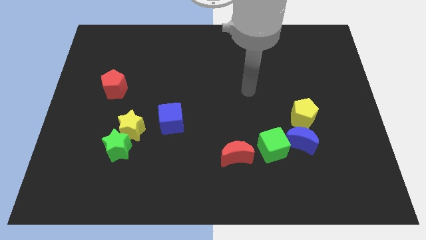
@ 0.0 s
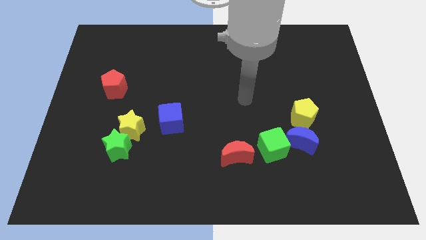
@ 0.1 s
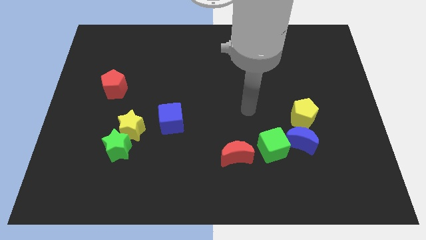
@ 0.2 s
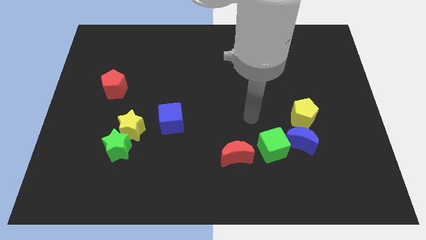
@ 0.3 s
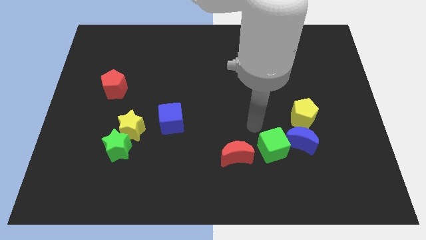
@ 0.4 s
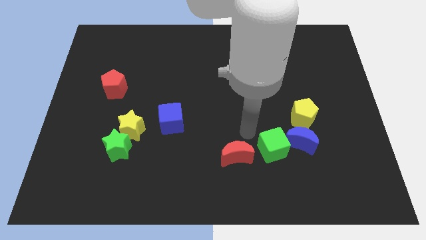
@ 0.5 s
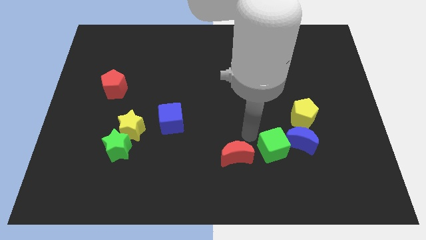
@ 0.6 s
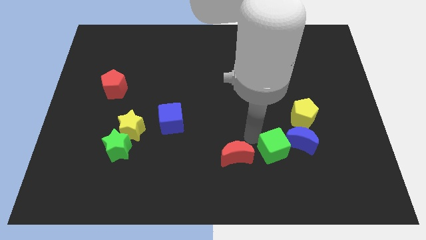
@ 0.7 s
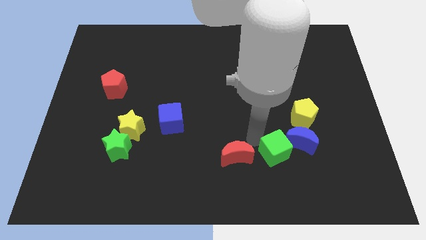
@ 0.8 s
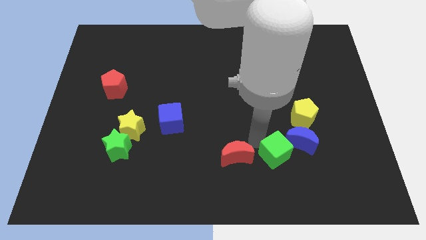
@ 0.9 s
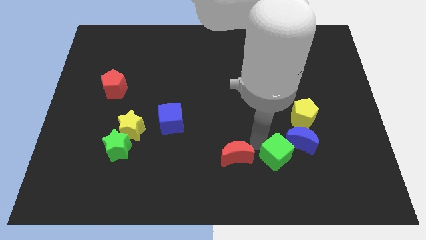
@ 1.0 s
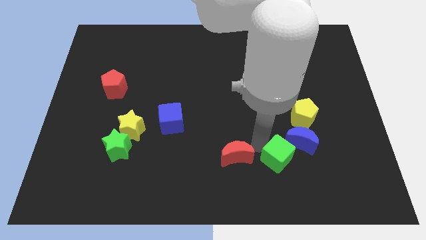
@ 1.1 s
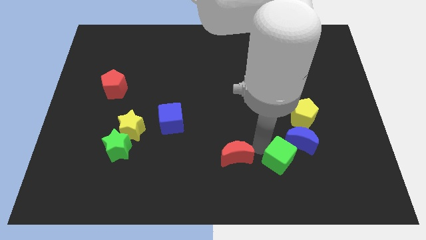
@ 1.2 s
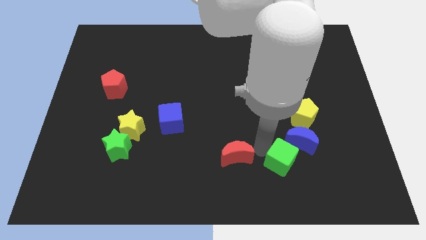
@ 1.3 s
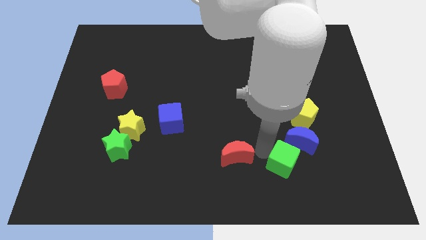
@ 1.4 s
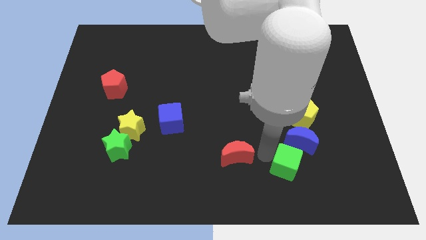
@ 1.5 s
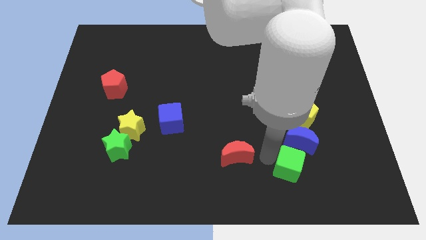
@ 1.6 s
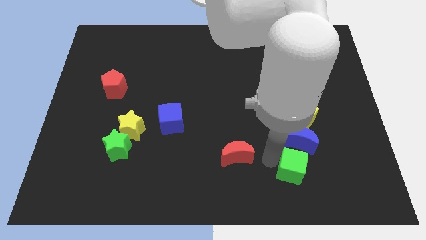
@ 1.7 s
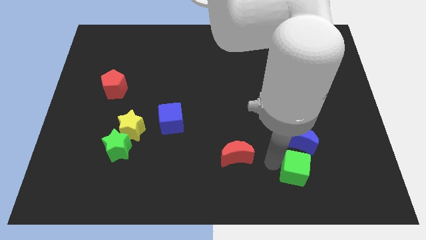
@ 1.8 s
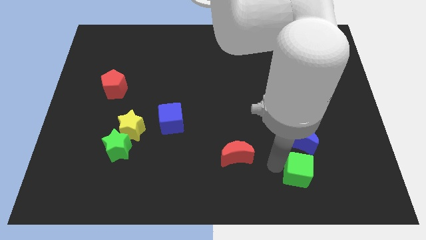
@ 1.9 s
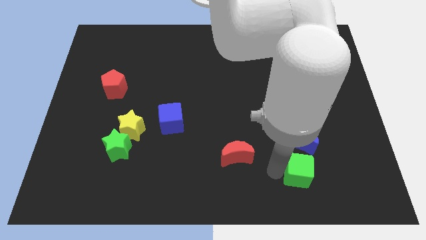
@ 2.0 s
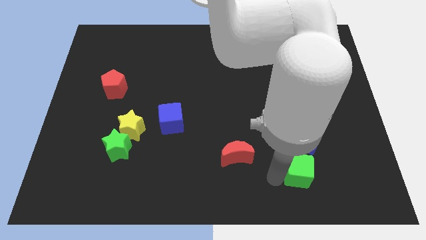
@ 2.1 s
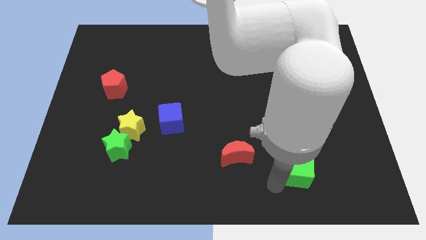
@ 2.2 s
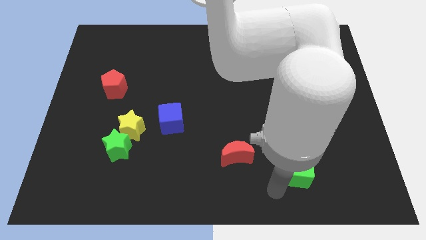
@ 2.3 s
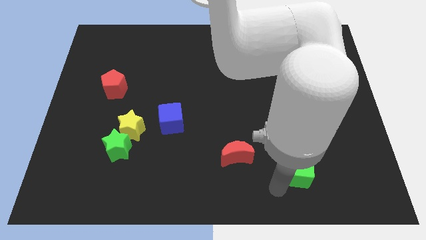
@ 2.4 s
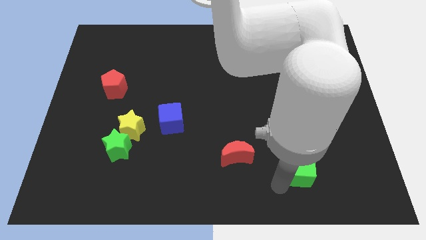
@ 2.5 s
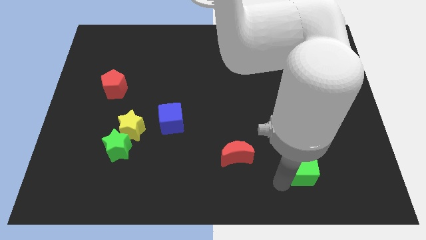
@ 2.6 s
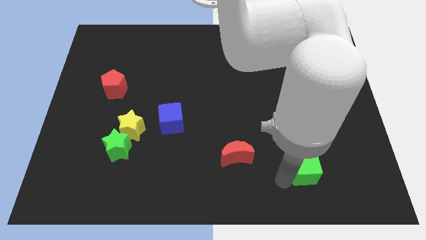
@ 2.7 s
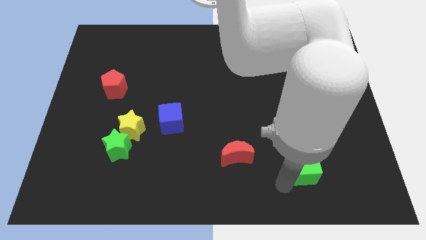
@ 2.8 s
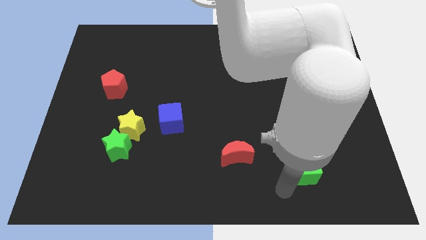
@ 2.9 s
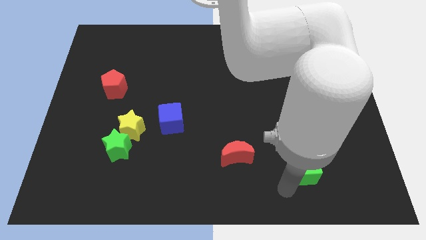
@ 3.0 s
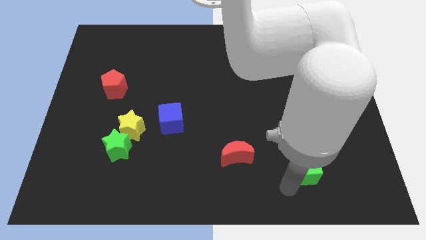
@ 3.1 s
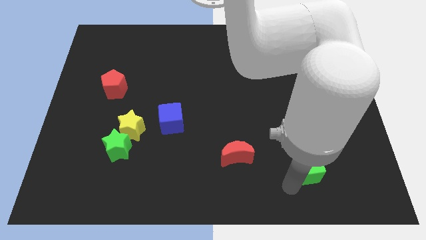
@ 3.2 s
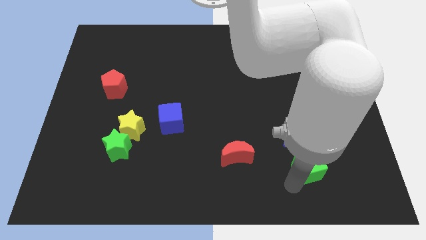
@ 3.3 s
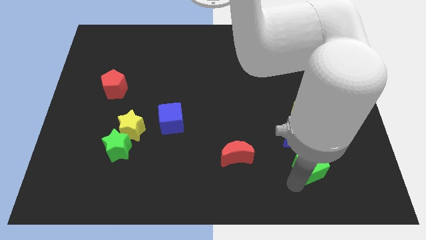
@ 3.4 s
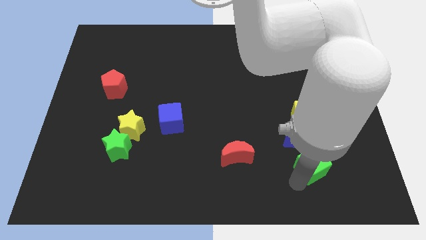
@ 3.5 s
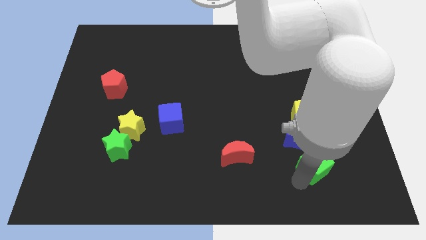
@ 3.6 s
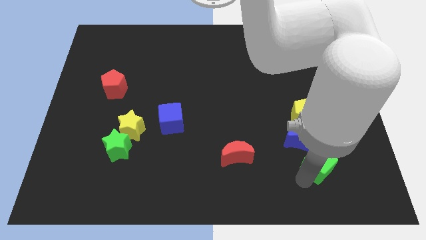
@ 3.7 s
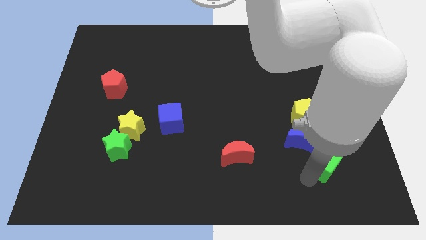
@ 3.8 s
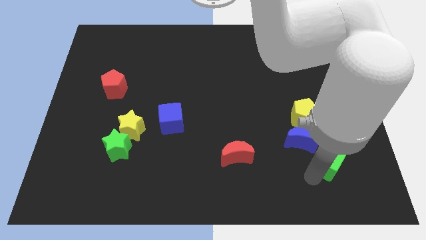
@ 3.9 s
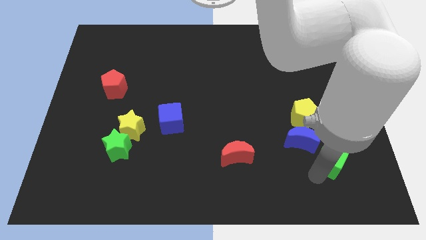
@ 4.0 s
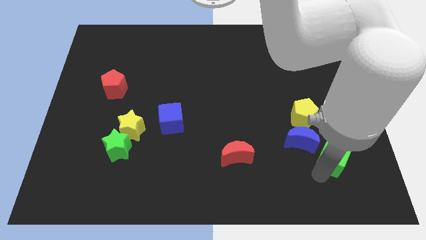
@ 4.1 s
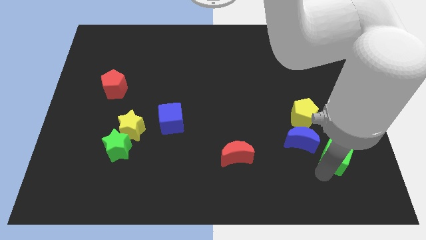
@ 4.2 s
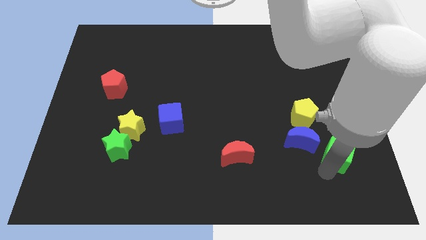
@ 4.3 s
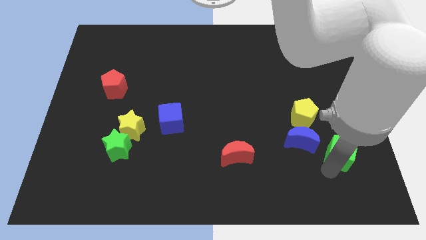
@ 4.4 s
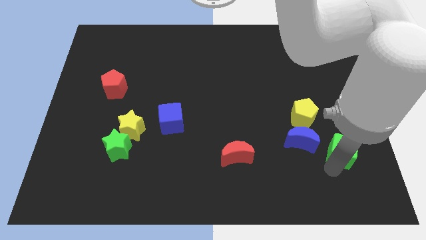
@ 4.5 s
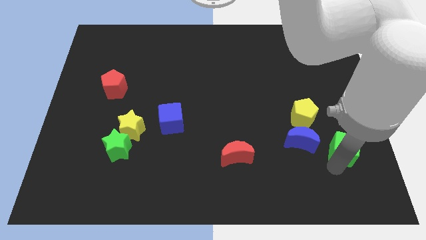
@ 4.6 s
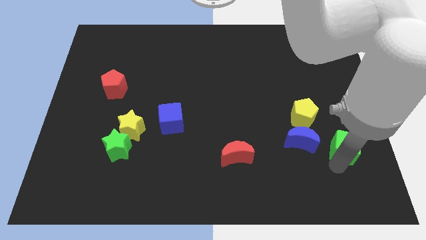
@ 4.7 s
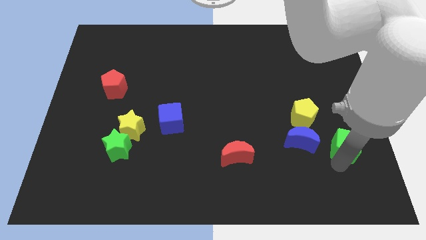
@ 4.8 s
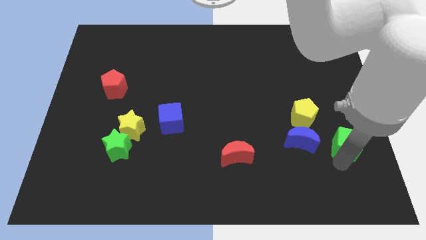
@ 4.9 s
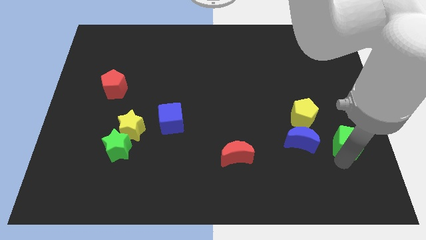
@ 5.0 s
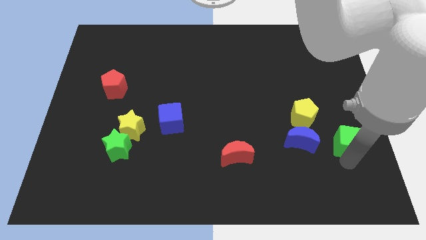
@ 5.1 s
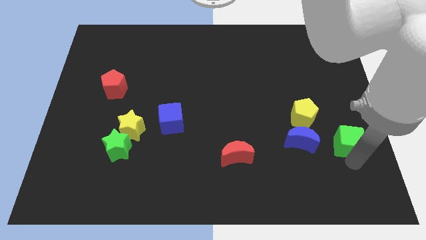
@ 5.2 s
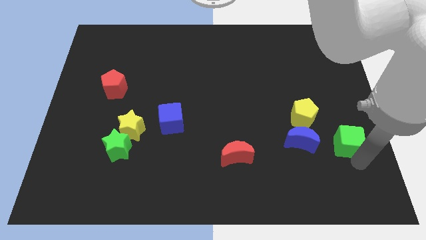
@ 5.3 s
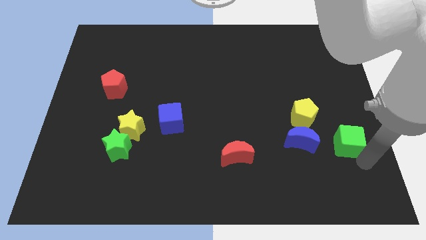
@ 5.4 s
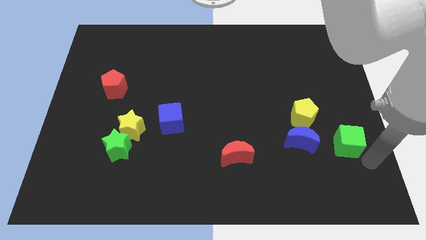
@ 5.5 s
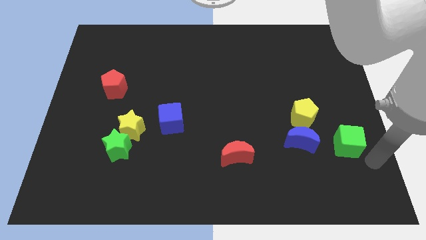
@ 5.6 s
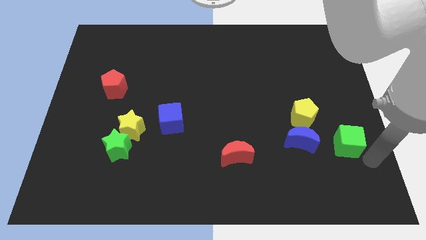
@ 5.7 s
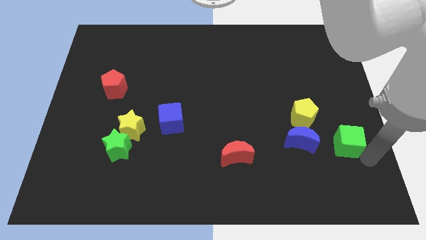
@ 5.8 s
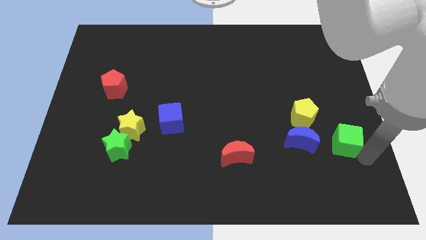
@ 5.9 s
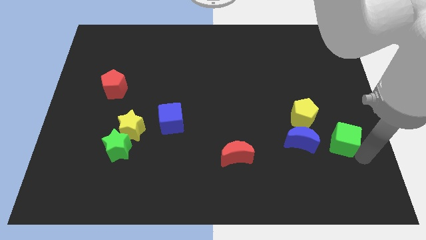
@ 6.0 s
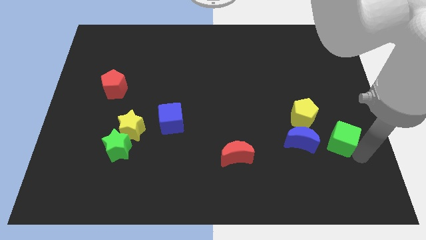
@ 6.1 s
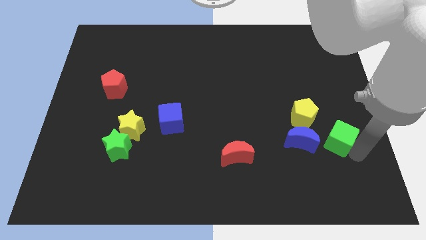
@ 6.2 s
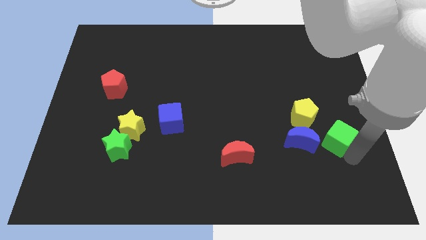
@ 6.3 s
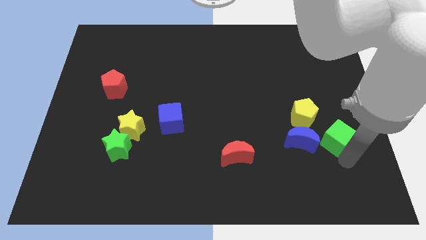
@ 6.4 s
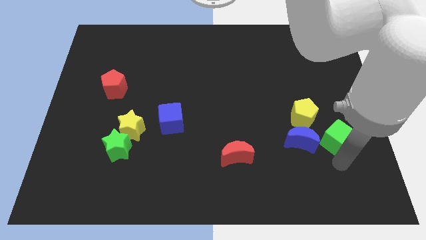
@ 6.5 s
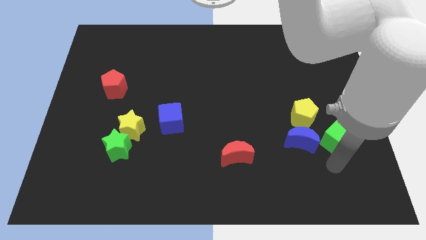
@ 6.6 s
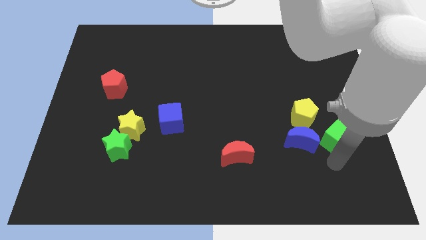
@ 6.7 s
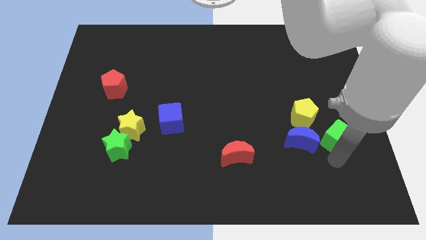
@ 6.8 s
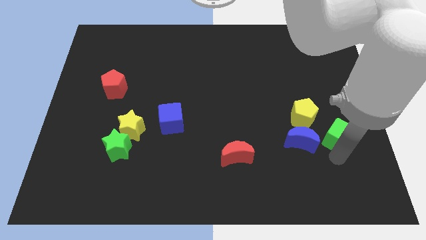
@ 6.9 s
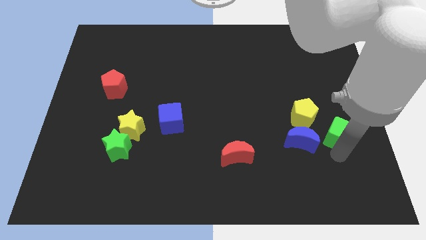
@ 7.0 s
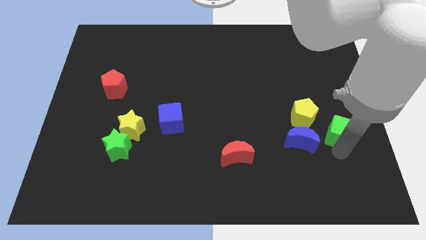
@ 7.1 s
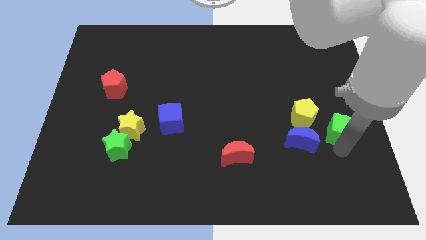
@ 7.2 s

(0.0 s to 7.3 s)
move the green cube to the right side of the board

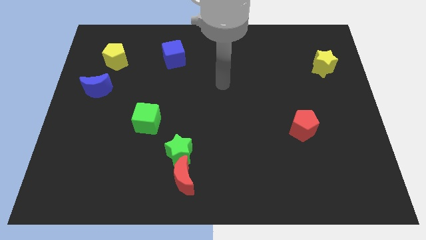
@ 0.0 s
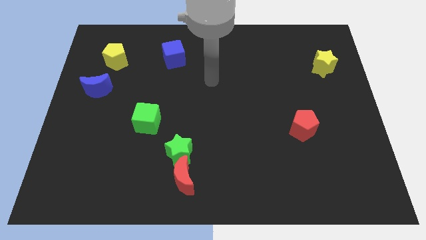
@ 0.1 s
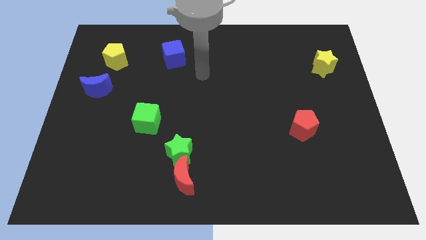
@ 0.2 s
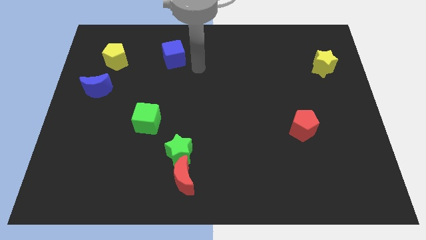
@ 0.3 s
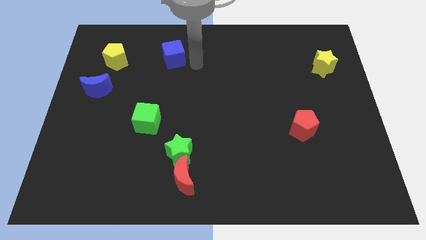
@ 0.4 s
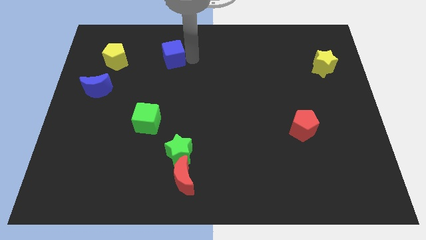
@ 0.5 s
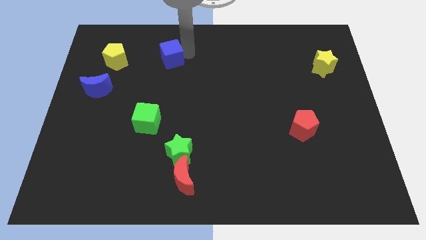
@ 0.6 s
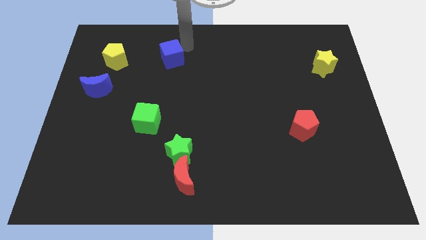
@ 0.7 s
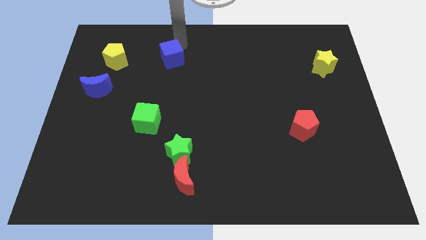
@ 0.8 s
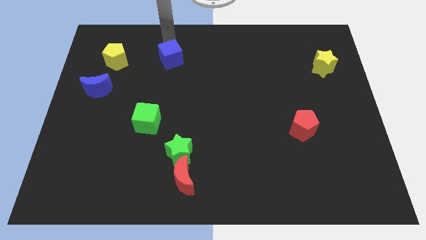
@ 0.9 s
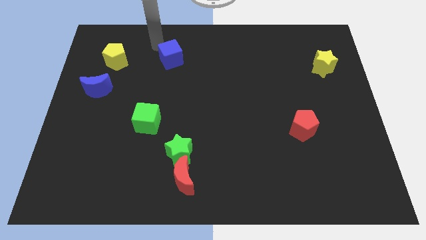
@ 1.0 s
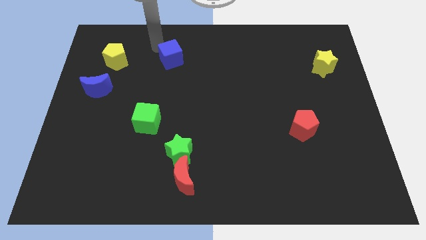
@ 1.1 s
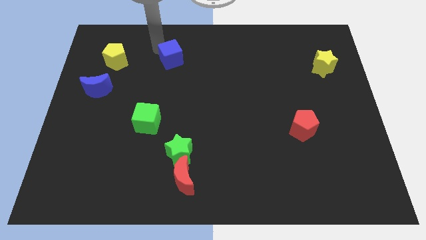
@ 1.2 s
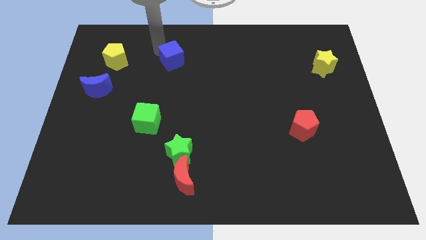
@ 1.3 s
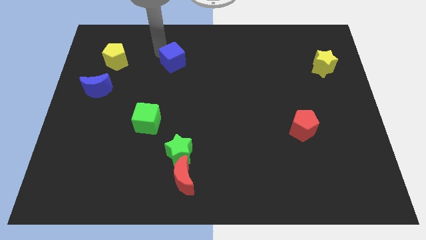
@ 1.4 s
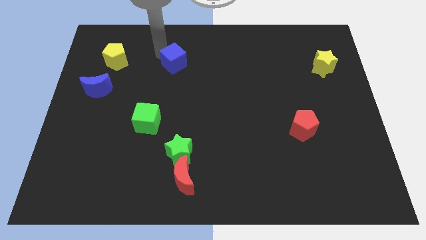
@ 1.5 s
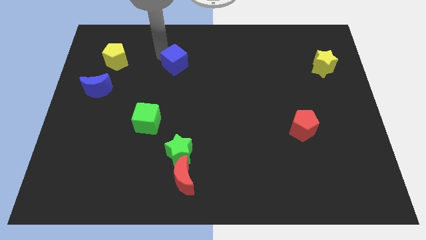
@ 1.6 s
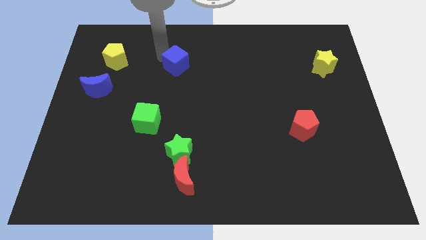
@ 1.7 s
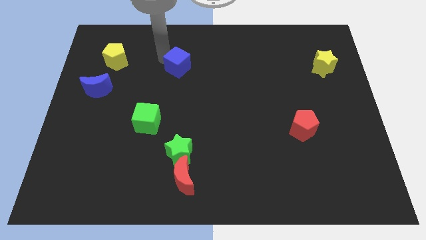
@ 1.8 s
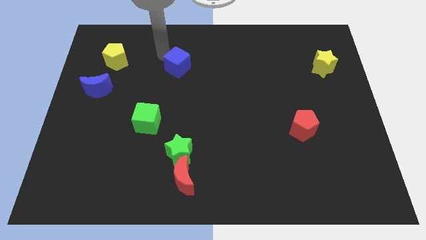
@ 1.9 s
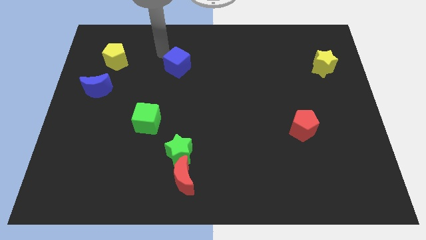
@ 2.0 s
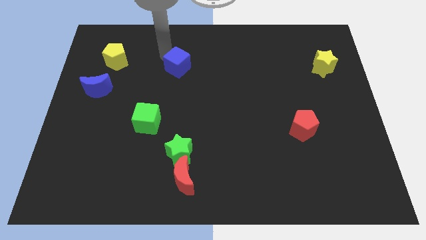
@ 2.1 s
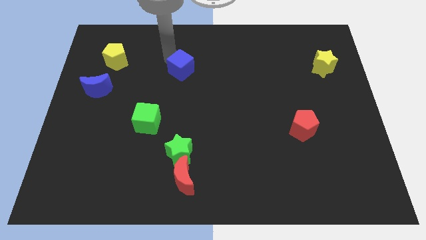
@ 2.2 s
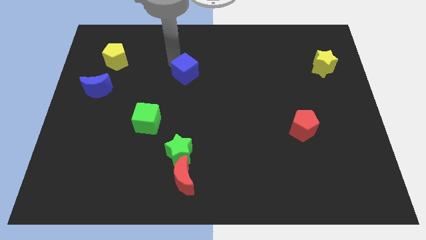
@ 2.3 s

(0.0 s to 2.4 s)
move the blue cube to the middle
